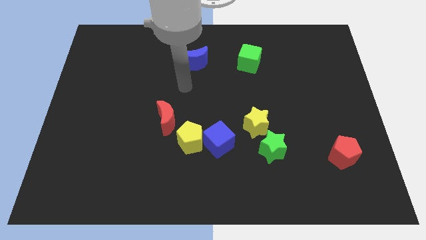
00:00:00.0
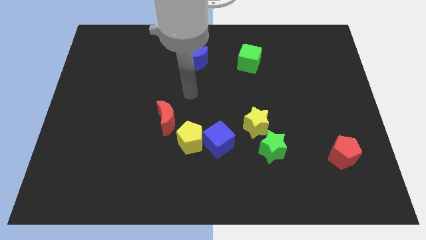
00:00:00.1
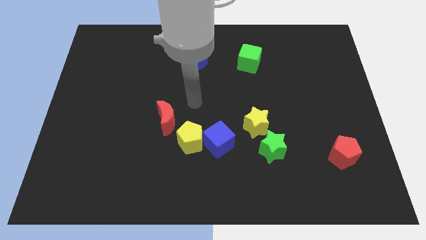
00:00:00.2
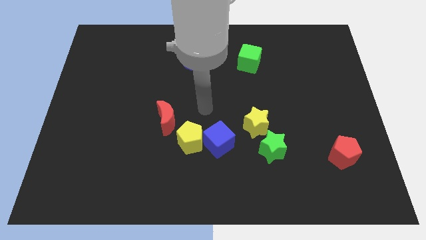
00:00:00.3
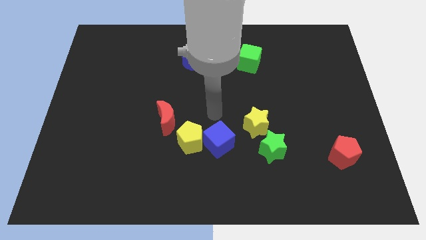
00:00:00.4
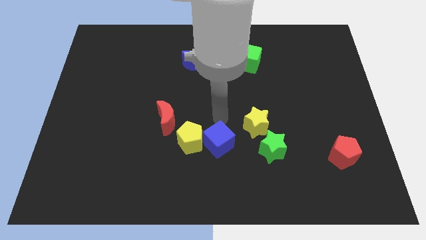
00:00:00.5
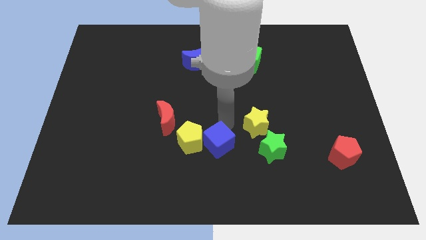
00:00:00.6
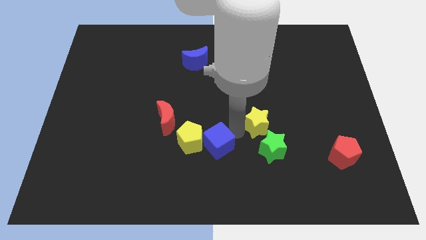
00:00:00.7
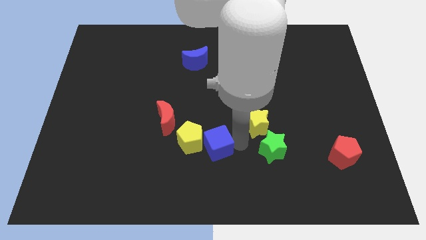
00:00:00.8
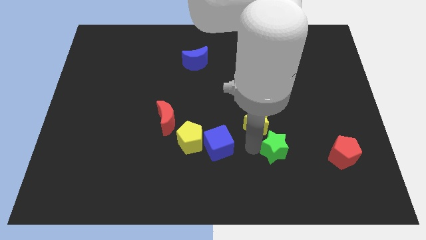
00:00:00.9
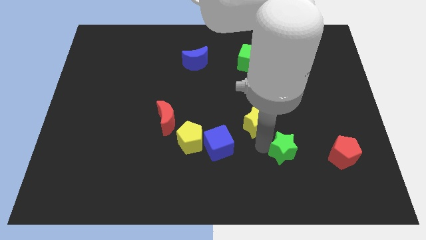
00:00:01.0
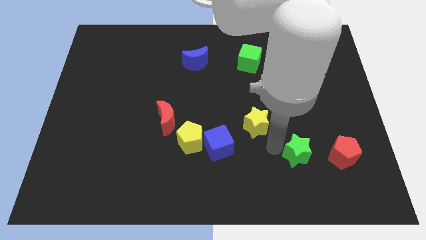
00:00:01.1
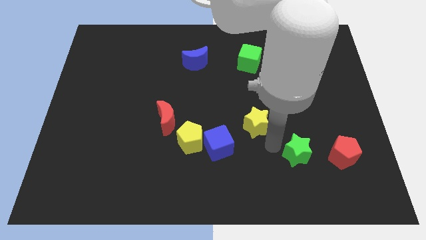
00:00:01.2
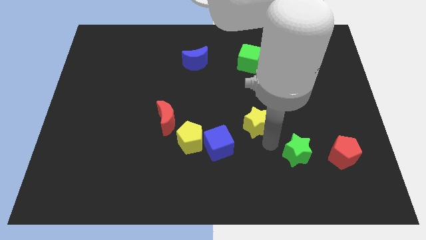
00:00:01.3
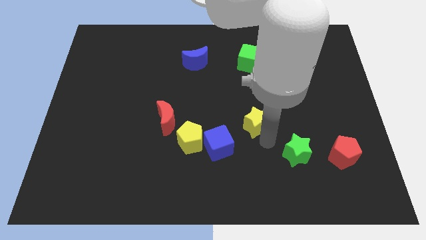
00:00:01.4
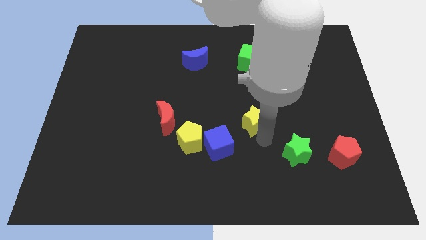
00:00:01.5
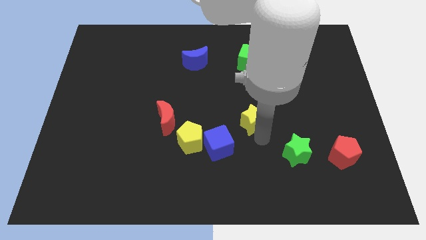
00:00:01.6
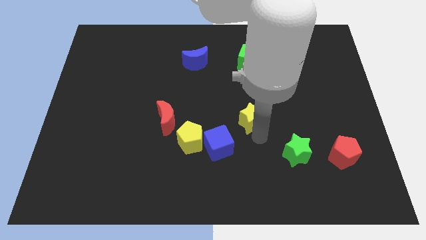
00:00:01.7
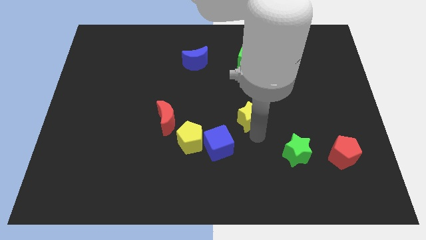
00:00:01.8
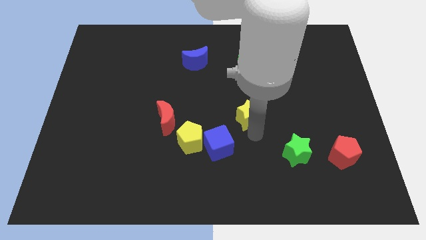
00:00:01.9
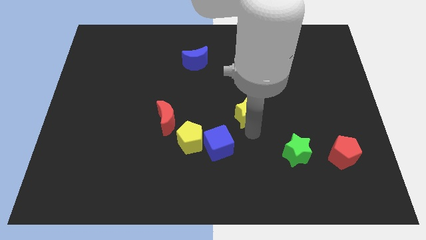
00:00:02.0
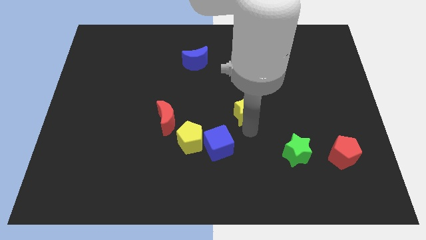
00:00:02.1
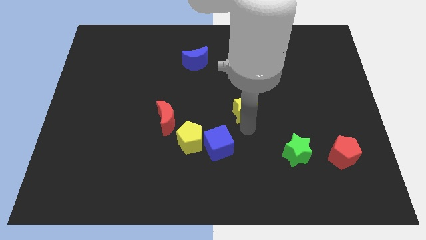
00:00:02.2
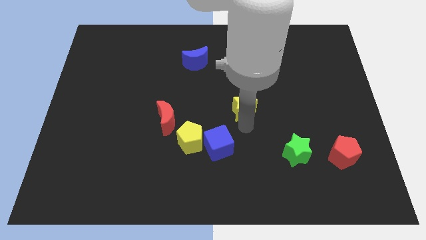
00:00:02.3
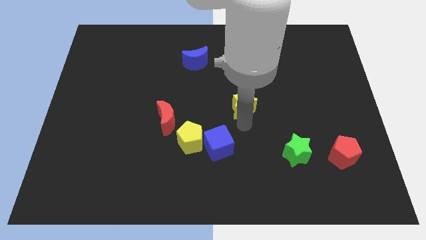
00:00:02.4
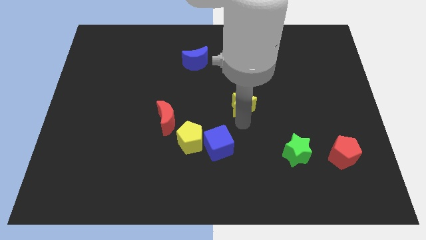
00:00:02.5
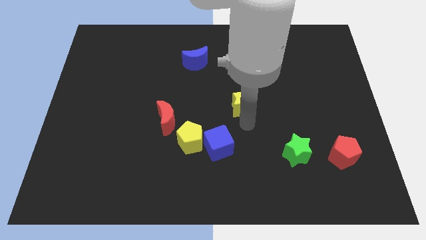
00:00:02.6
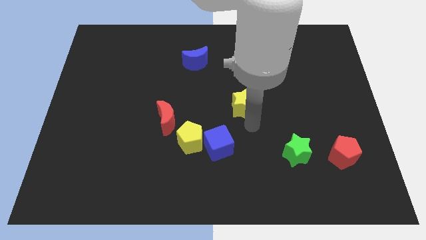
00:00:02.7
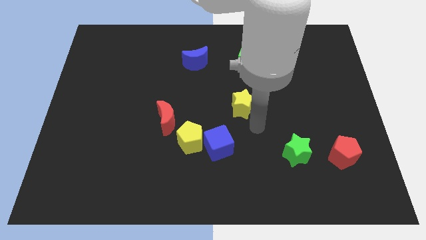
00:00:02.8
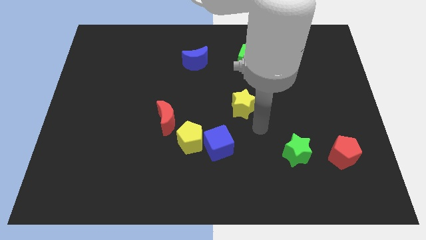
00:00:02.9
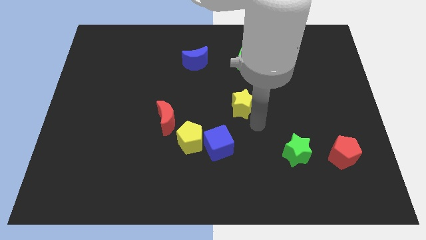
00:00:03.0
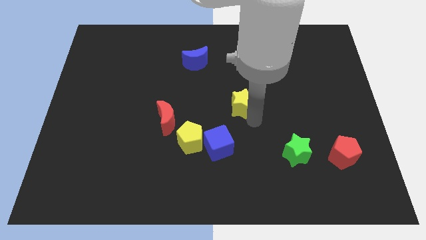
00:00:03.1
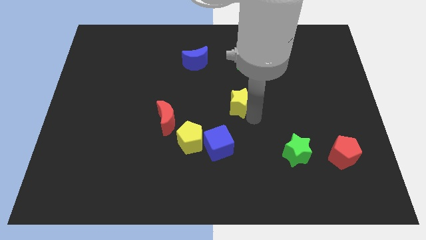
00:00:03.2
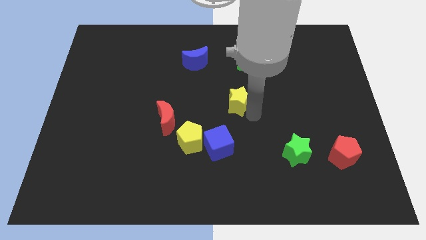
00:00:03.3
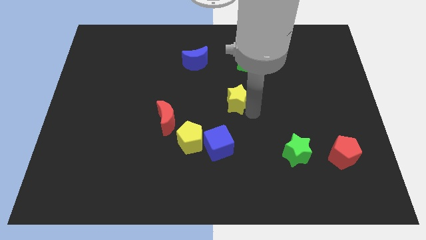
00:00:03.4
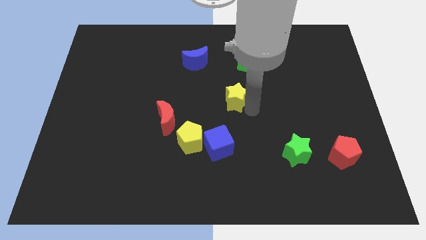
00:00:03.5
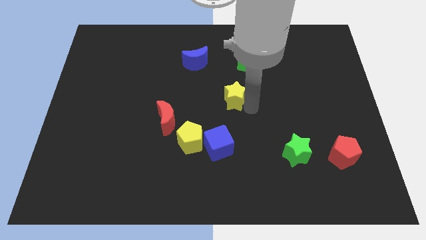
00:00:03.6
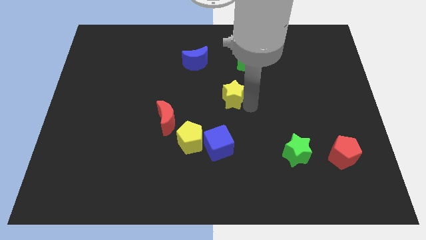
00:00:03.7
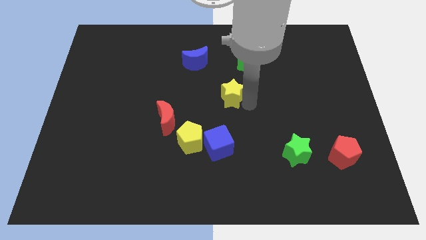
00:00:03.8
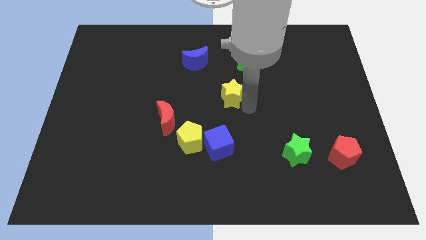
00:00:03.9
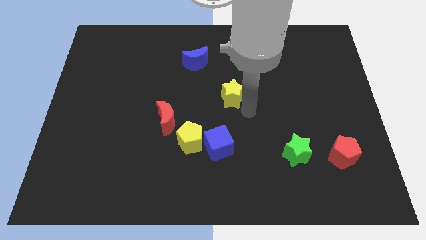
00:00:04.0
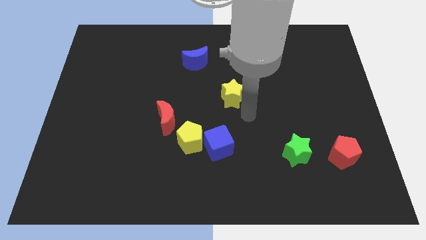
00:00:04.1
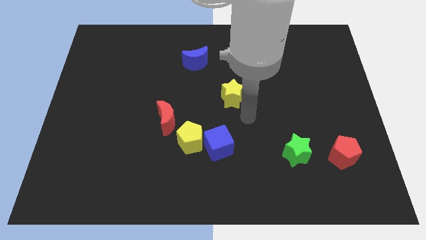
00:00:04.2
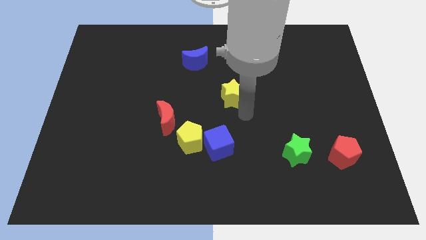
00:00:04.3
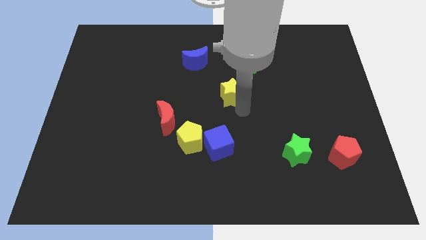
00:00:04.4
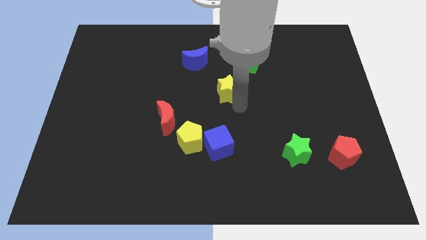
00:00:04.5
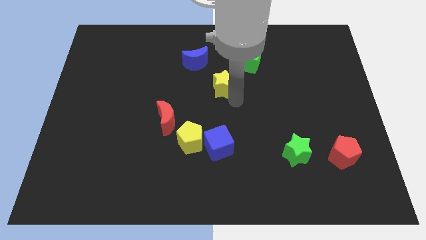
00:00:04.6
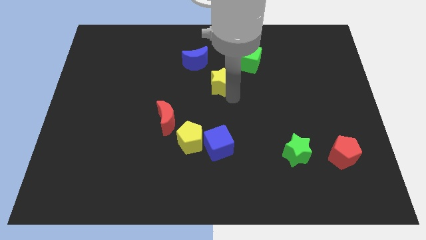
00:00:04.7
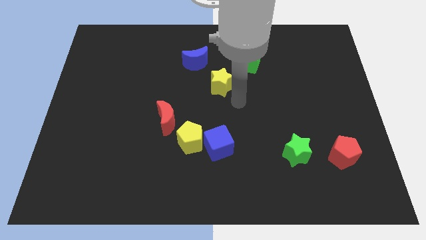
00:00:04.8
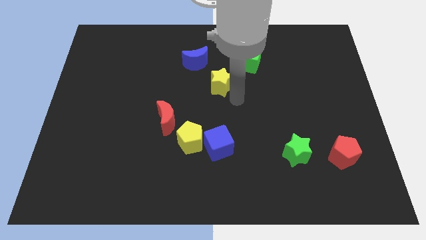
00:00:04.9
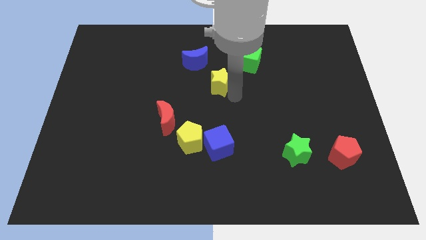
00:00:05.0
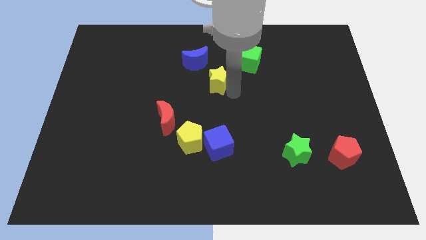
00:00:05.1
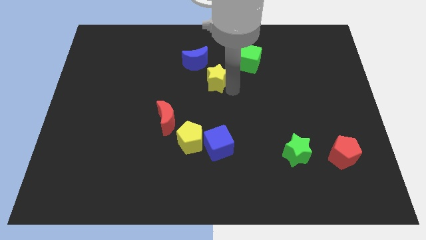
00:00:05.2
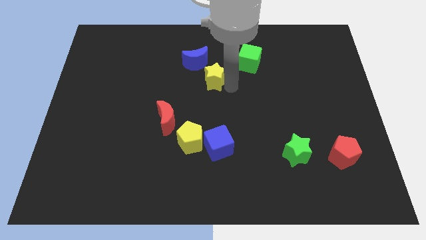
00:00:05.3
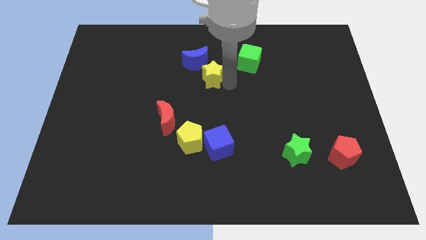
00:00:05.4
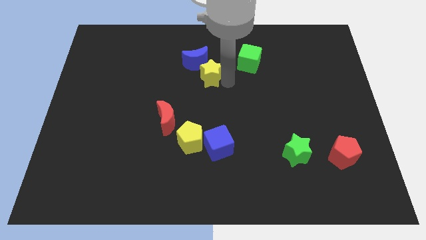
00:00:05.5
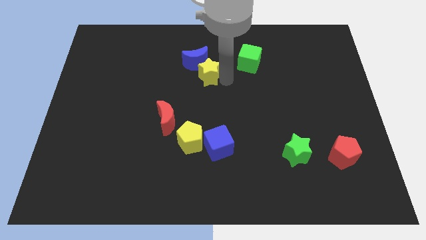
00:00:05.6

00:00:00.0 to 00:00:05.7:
slide the yellow star close to the blue moon

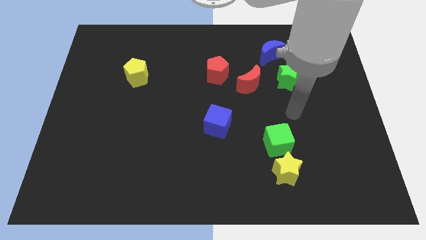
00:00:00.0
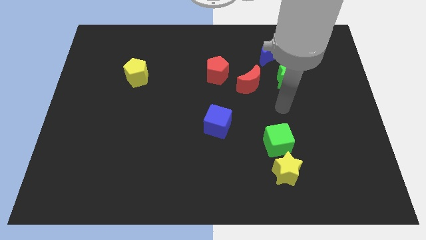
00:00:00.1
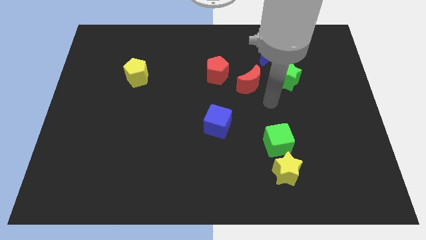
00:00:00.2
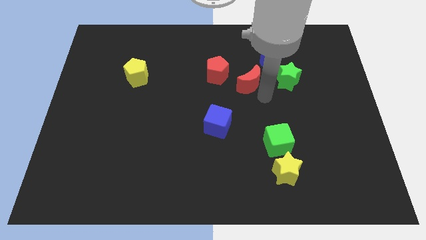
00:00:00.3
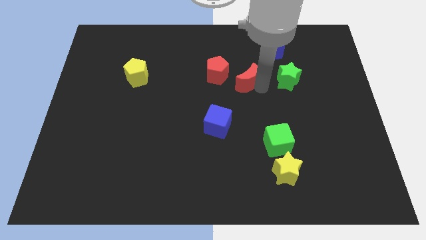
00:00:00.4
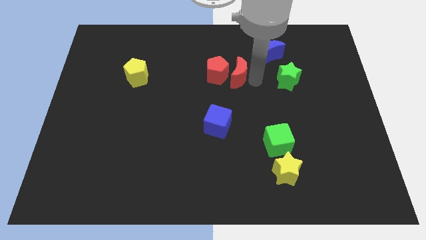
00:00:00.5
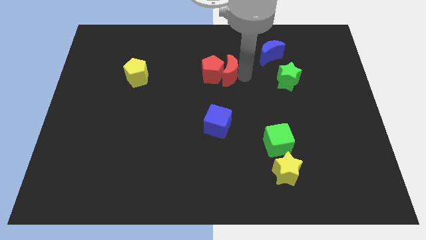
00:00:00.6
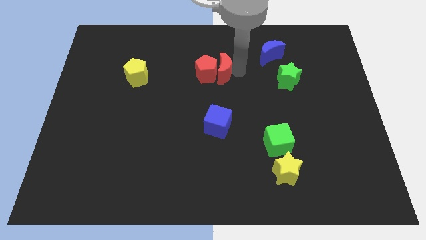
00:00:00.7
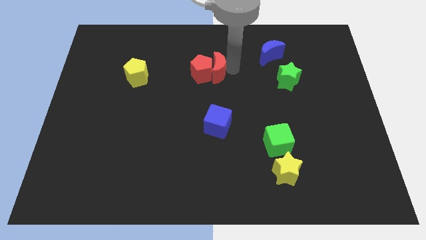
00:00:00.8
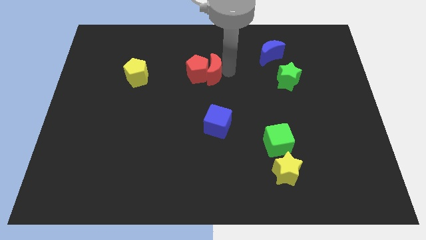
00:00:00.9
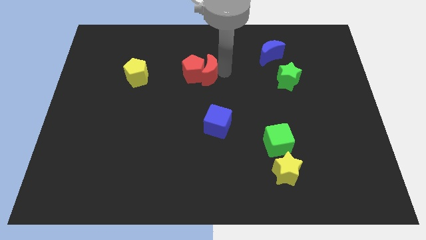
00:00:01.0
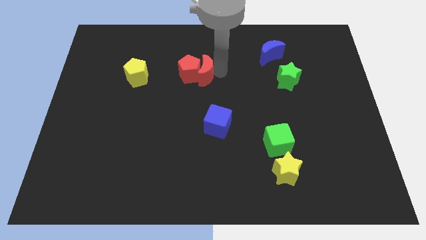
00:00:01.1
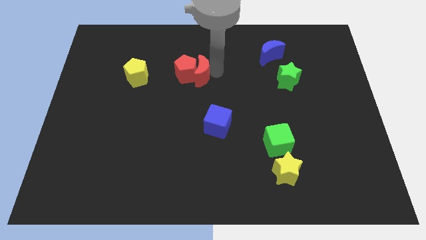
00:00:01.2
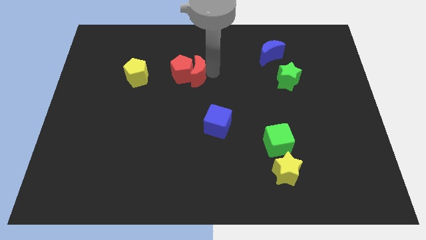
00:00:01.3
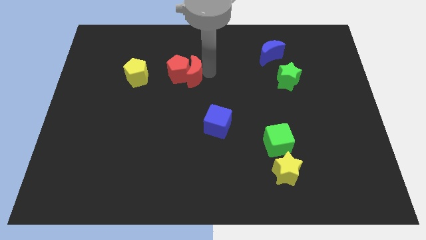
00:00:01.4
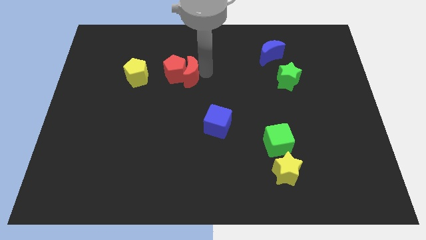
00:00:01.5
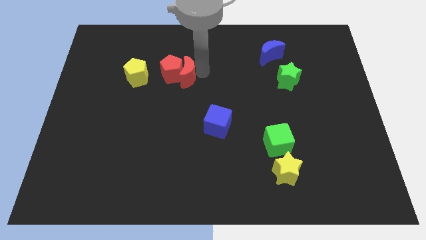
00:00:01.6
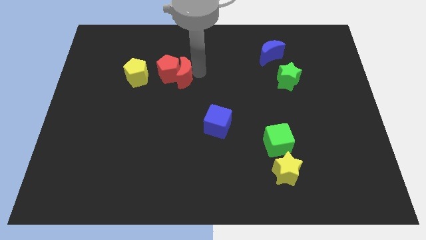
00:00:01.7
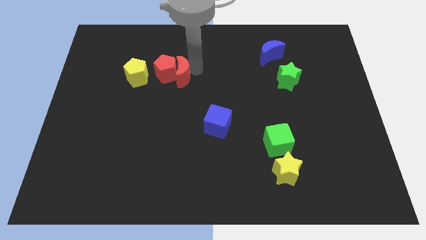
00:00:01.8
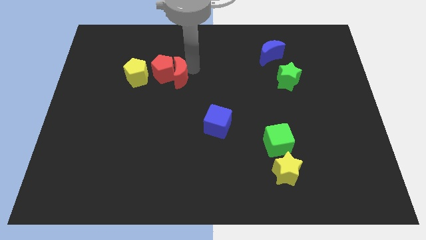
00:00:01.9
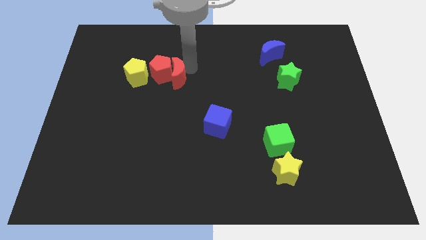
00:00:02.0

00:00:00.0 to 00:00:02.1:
slide the red pentagon next to the yellow pentagon
